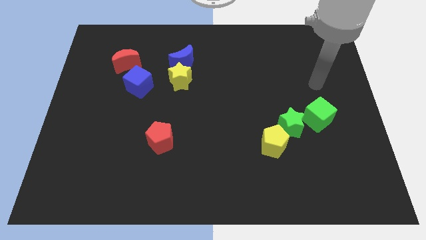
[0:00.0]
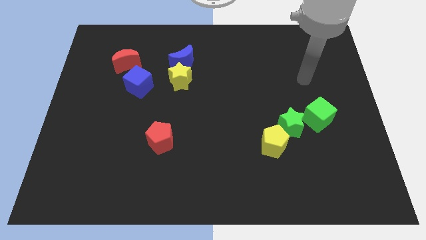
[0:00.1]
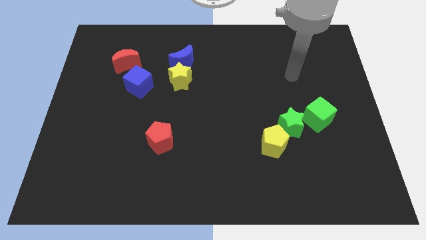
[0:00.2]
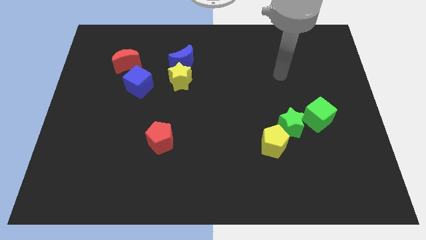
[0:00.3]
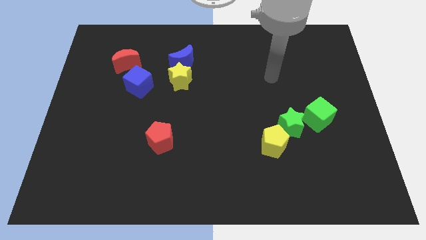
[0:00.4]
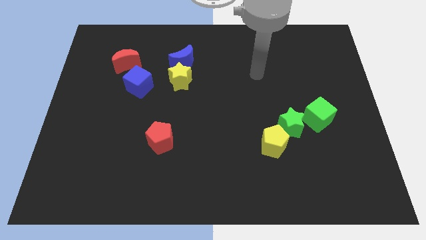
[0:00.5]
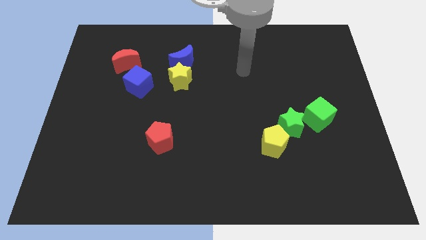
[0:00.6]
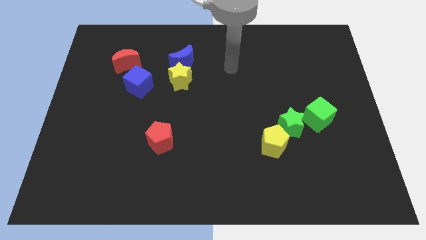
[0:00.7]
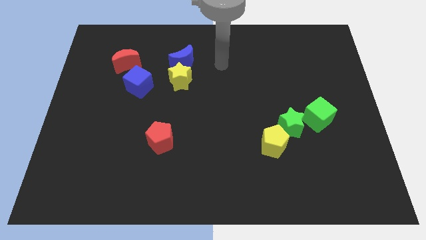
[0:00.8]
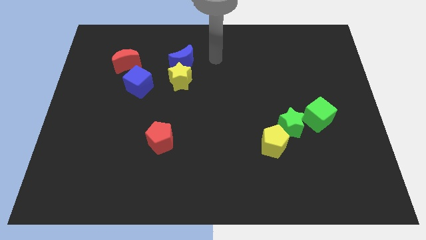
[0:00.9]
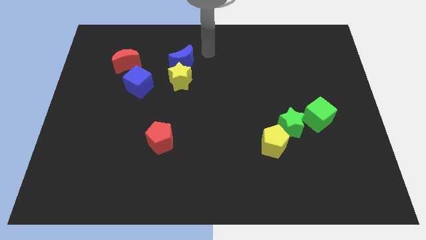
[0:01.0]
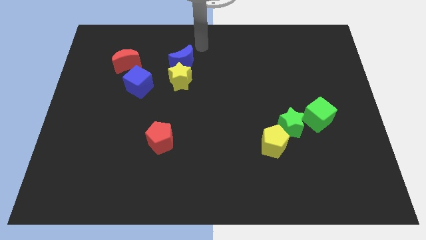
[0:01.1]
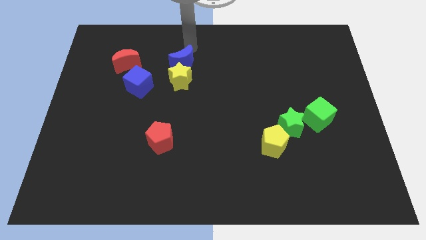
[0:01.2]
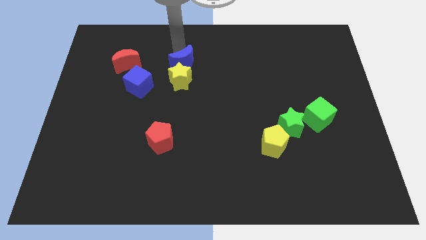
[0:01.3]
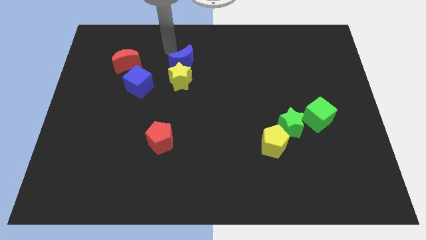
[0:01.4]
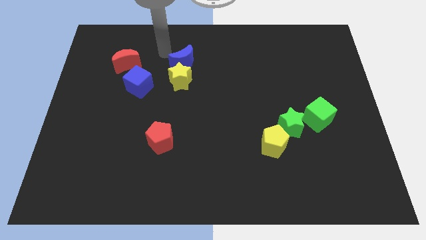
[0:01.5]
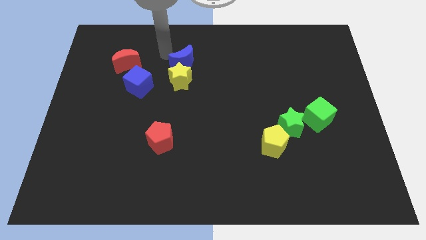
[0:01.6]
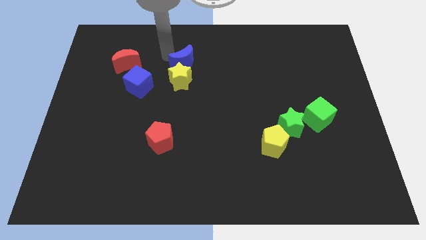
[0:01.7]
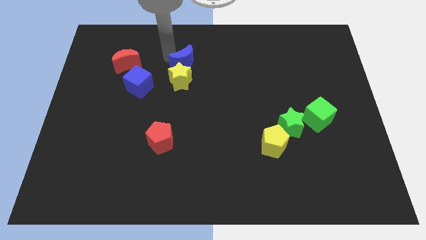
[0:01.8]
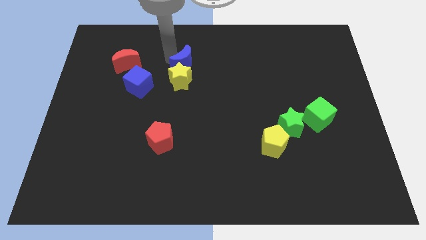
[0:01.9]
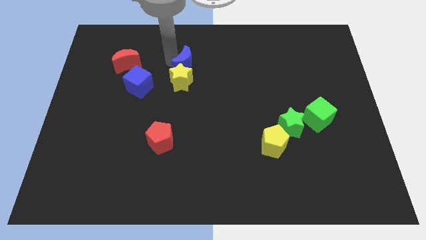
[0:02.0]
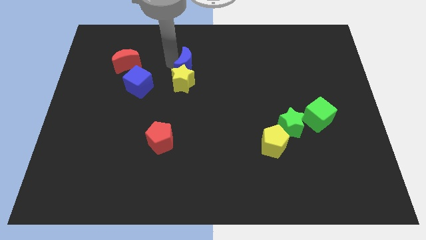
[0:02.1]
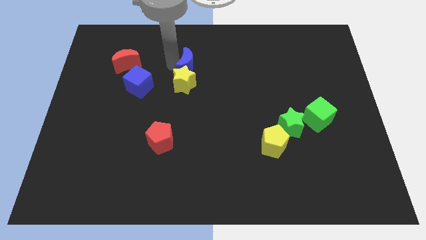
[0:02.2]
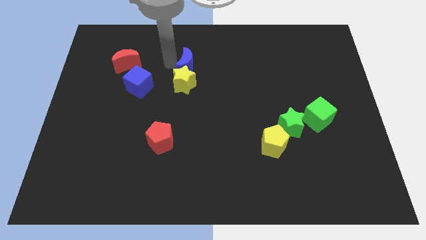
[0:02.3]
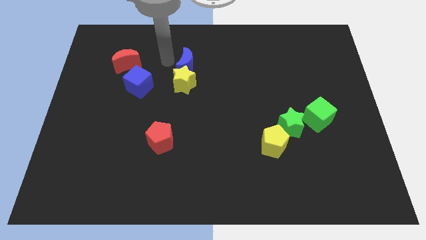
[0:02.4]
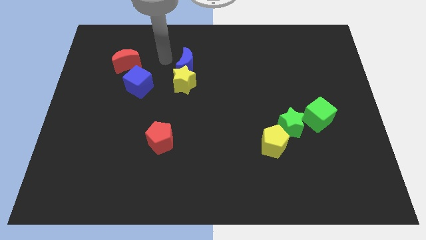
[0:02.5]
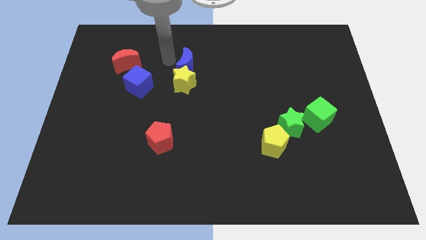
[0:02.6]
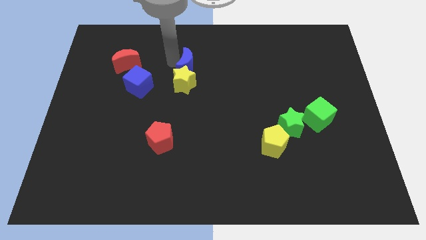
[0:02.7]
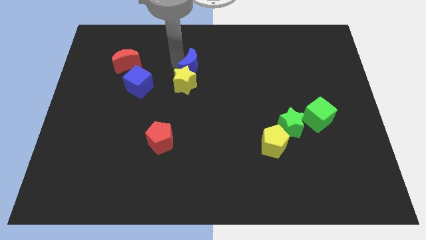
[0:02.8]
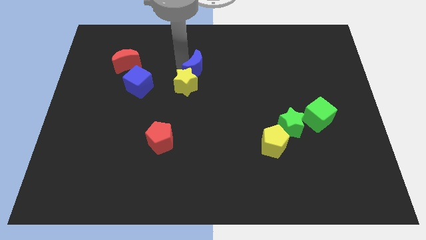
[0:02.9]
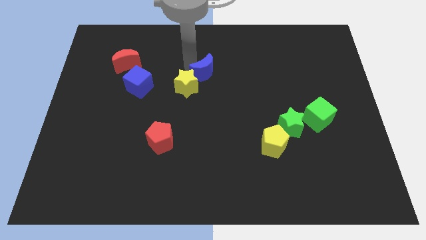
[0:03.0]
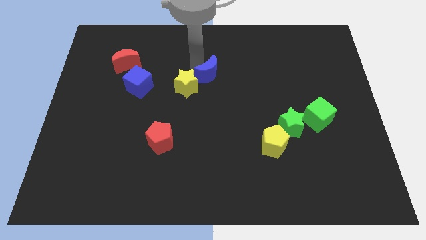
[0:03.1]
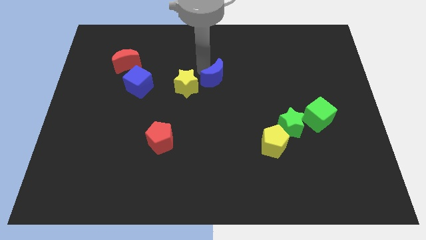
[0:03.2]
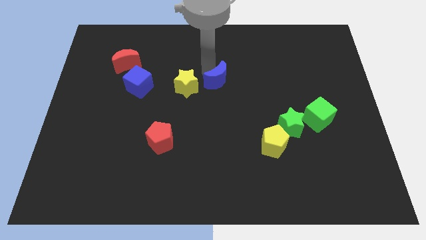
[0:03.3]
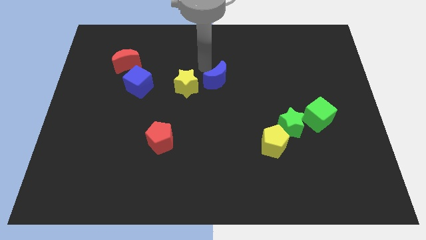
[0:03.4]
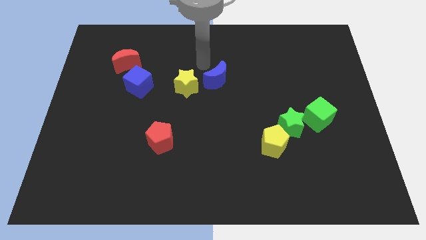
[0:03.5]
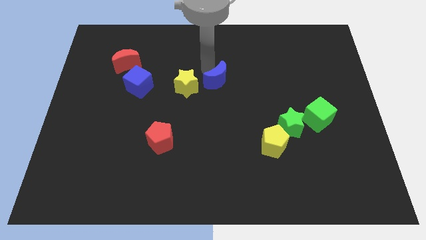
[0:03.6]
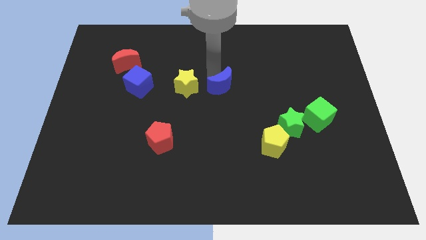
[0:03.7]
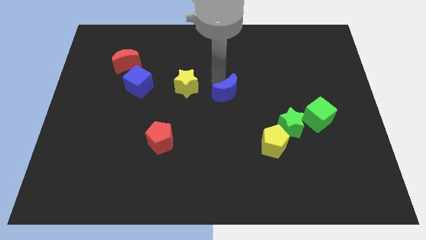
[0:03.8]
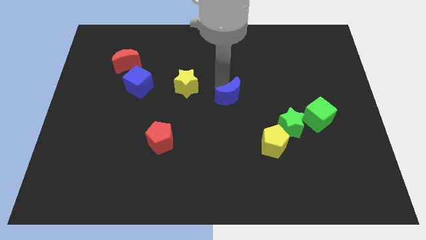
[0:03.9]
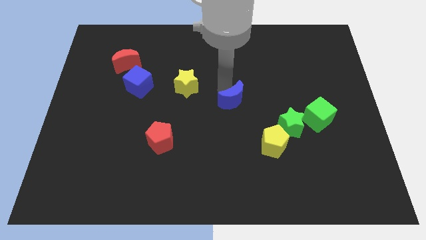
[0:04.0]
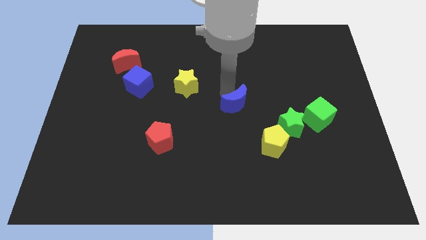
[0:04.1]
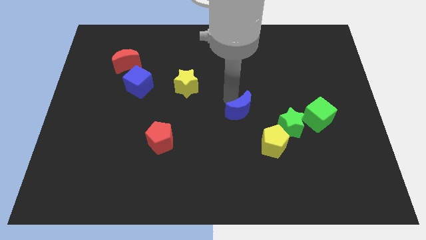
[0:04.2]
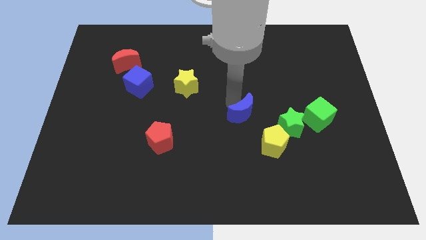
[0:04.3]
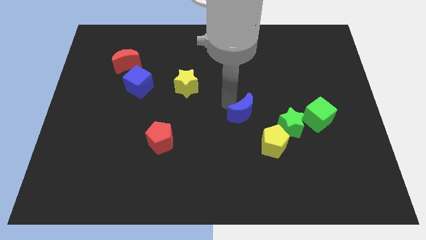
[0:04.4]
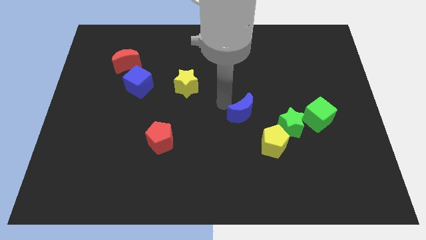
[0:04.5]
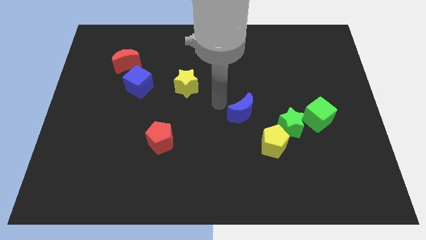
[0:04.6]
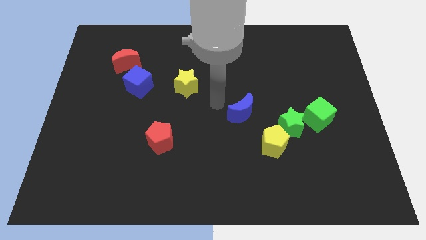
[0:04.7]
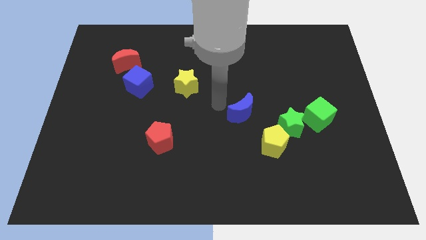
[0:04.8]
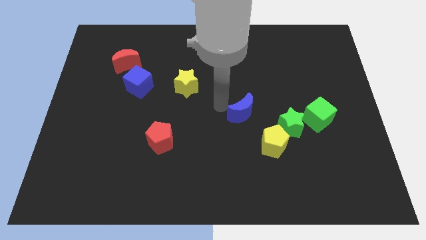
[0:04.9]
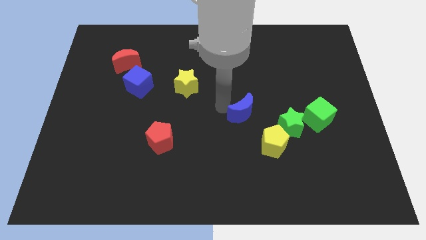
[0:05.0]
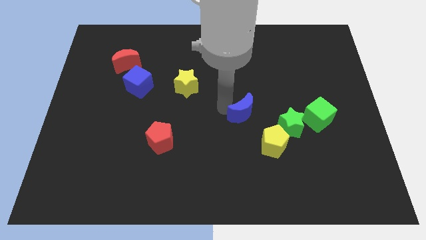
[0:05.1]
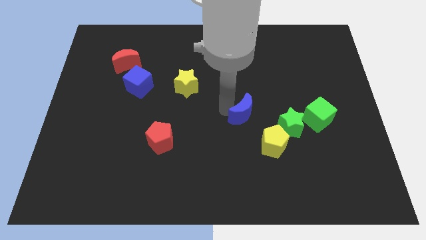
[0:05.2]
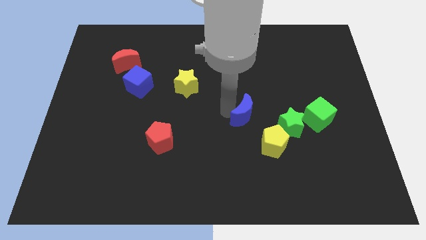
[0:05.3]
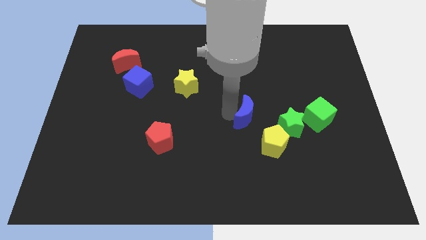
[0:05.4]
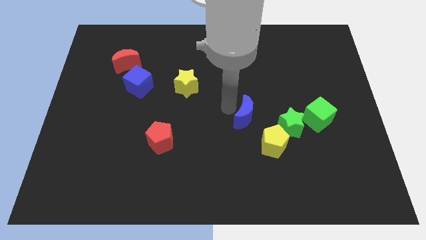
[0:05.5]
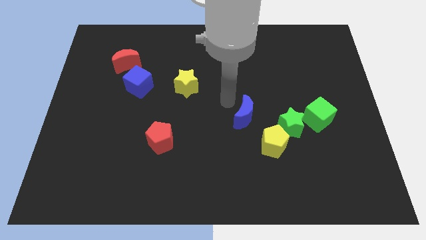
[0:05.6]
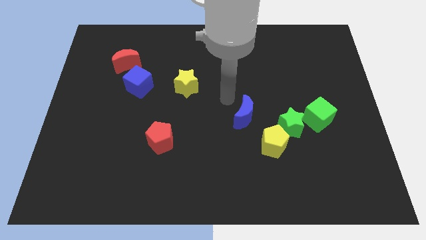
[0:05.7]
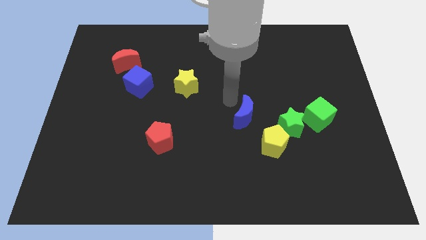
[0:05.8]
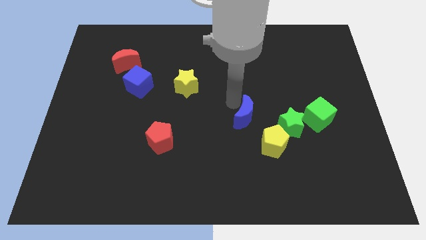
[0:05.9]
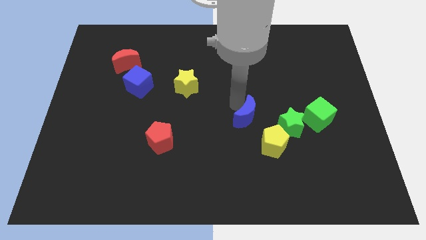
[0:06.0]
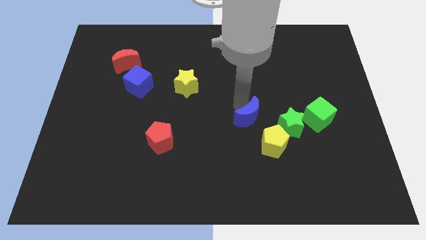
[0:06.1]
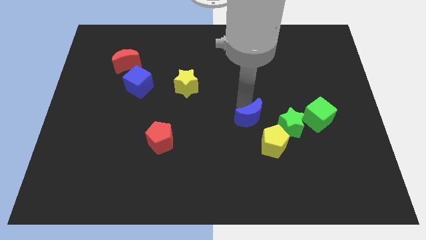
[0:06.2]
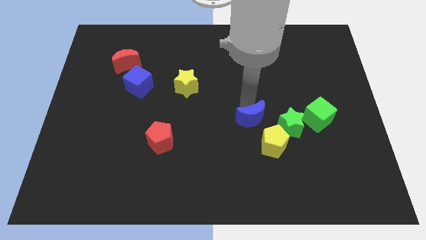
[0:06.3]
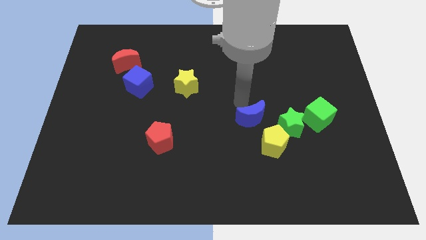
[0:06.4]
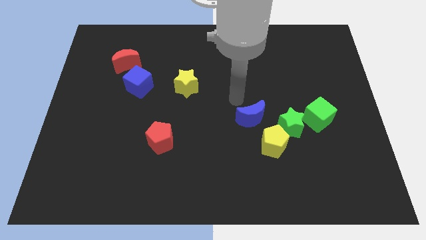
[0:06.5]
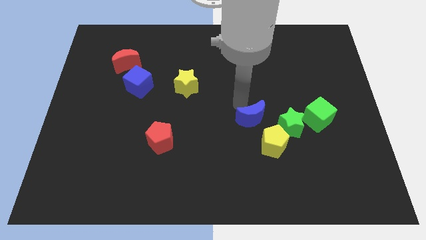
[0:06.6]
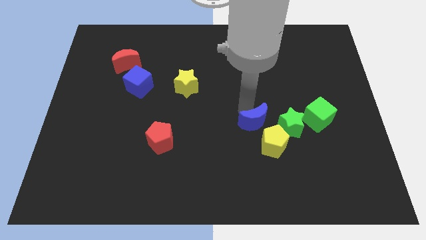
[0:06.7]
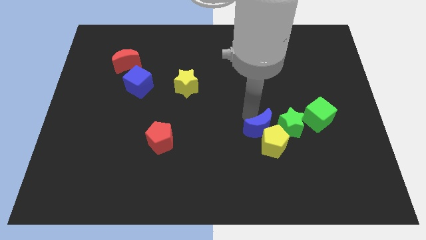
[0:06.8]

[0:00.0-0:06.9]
slide the blue moon towards the yellow pentagon

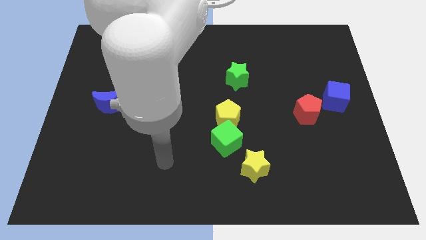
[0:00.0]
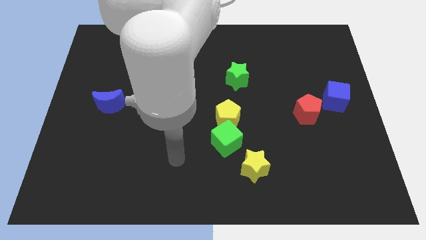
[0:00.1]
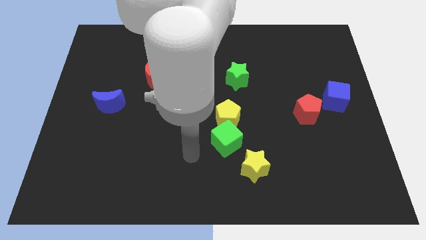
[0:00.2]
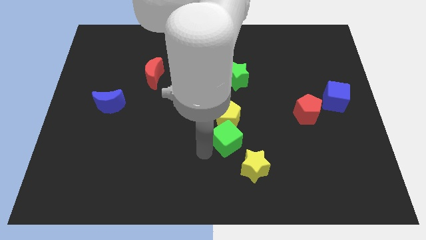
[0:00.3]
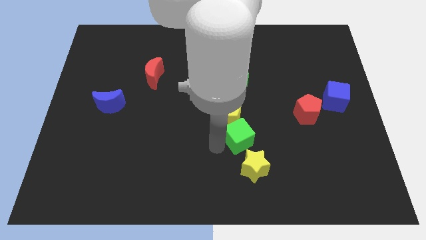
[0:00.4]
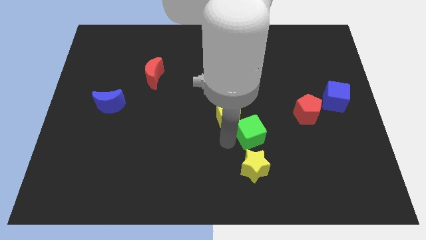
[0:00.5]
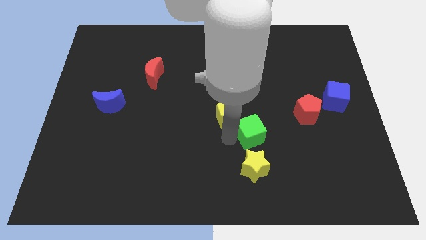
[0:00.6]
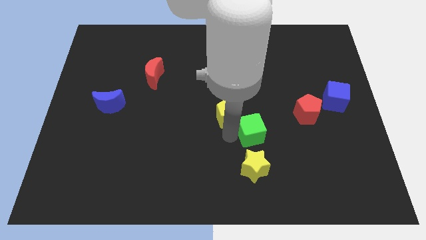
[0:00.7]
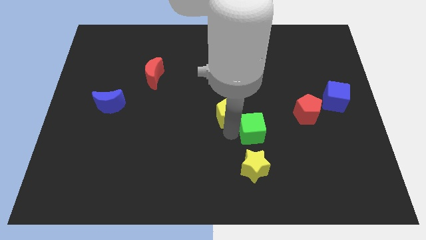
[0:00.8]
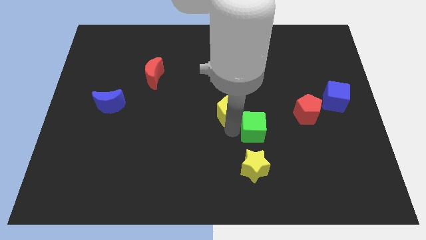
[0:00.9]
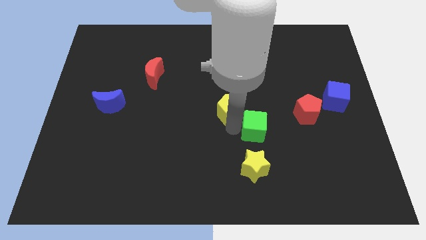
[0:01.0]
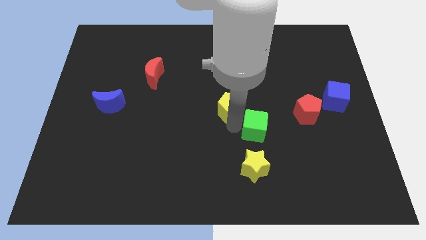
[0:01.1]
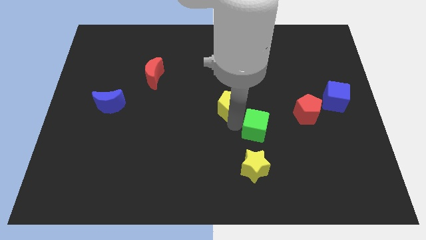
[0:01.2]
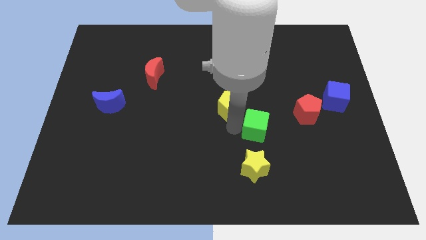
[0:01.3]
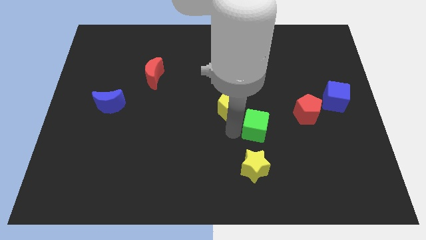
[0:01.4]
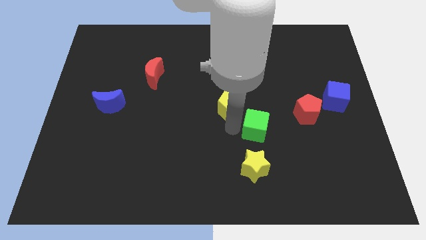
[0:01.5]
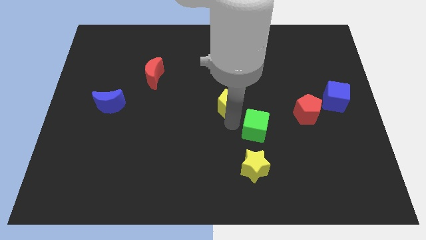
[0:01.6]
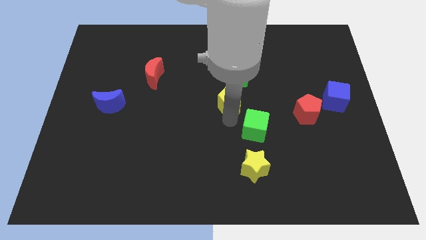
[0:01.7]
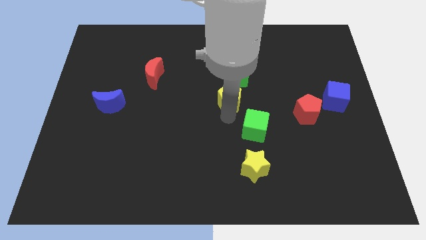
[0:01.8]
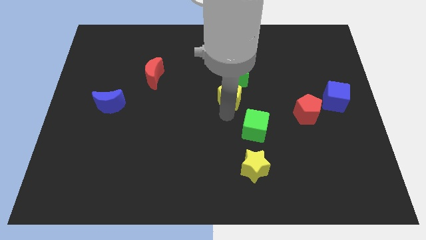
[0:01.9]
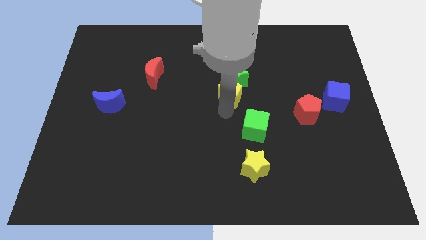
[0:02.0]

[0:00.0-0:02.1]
push the yellow pentagon close to the green star
